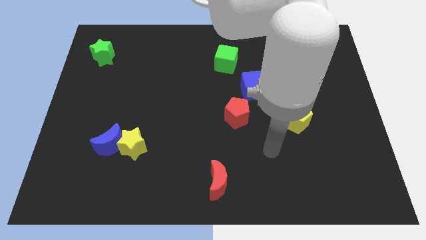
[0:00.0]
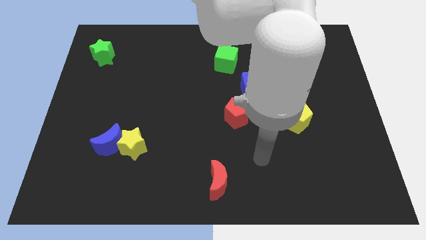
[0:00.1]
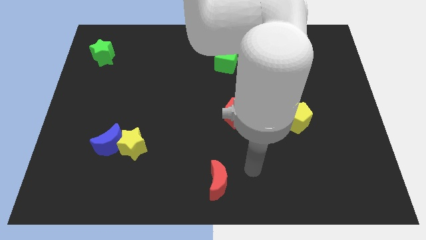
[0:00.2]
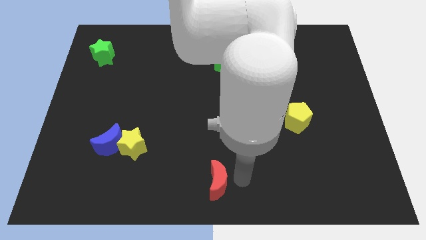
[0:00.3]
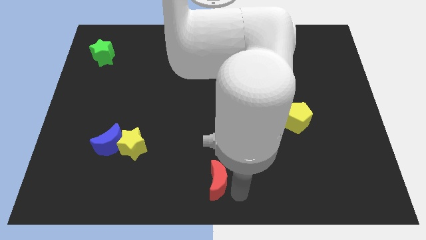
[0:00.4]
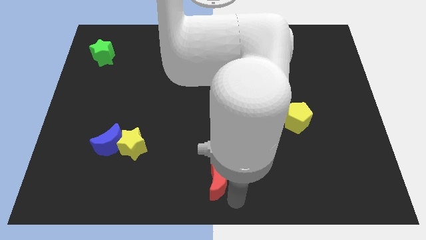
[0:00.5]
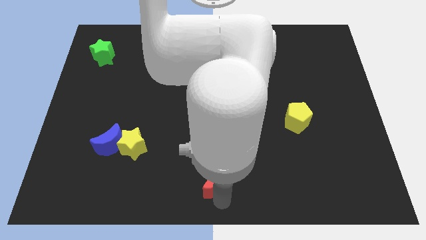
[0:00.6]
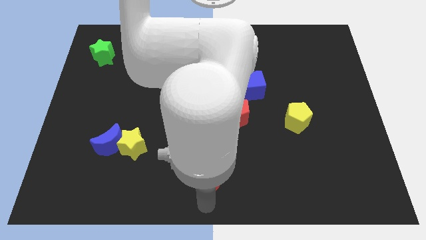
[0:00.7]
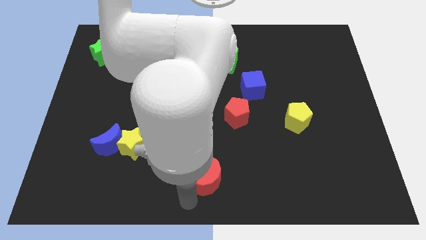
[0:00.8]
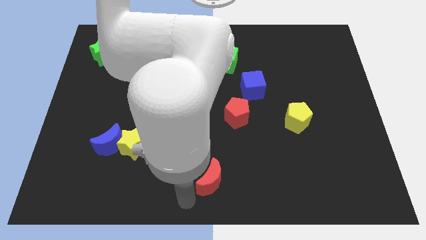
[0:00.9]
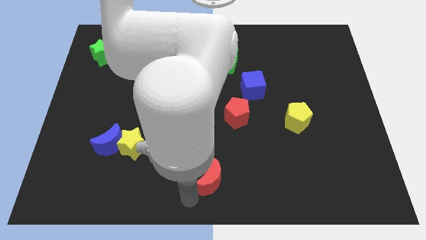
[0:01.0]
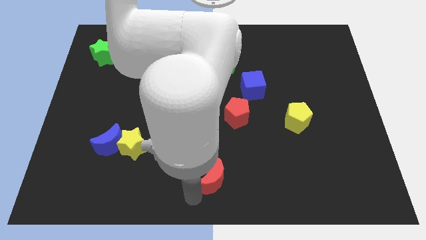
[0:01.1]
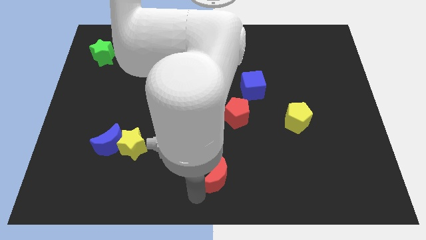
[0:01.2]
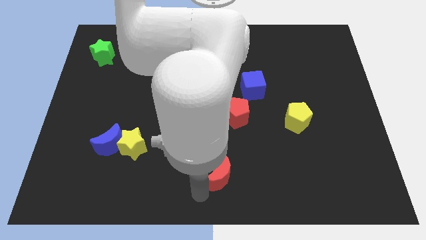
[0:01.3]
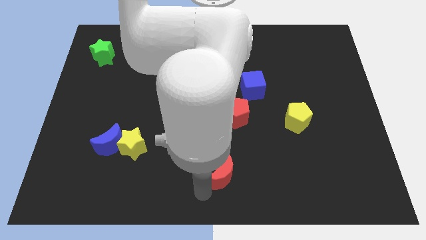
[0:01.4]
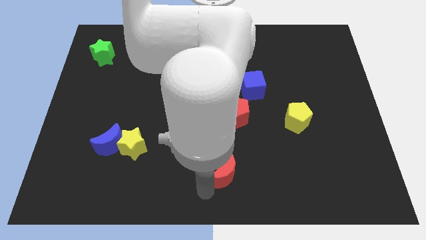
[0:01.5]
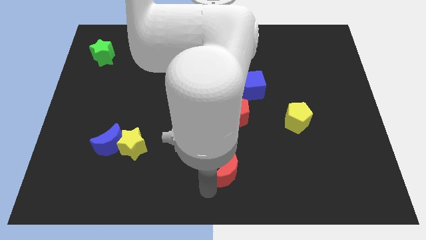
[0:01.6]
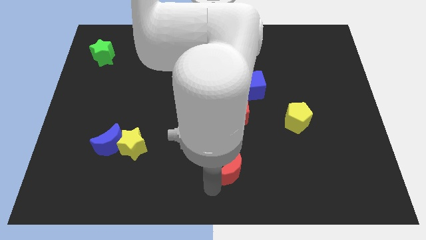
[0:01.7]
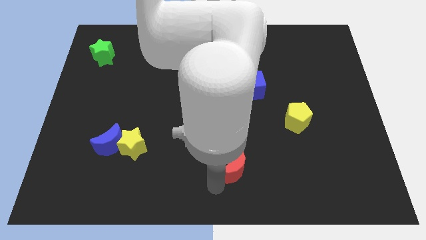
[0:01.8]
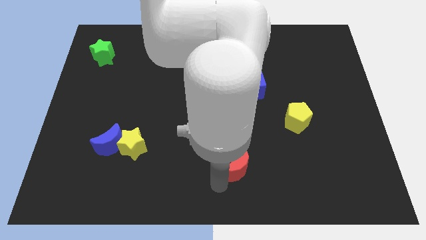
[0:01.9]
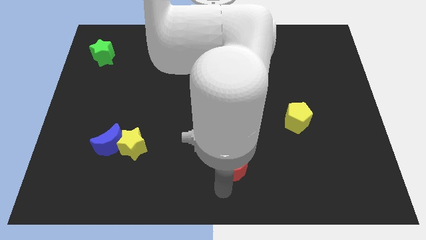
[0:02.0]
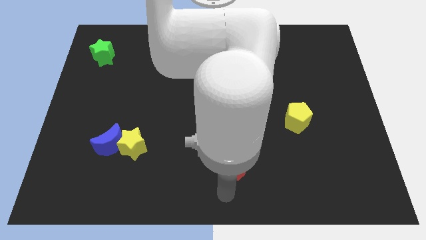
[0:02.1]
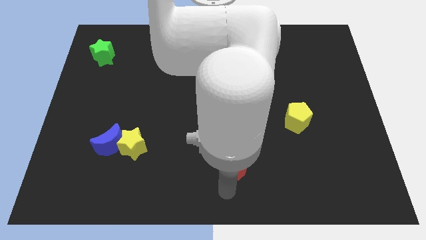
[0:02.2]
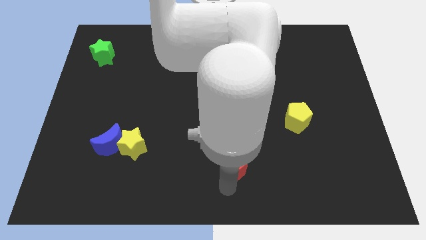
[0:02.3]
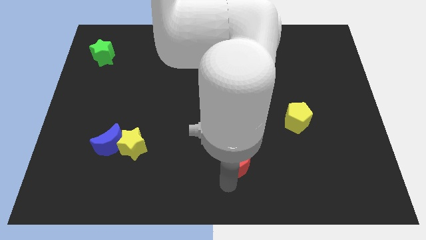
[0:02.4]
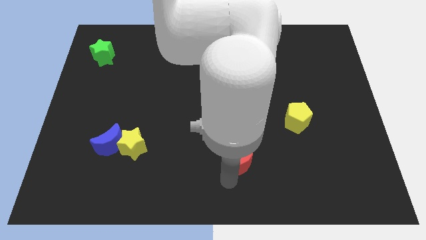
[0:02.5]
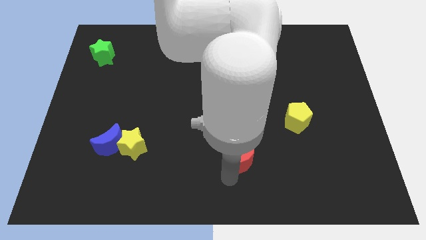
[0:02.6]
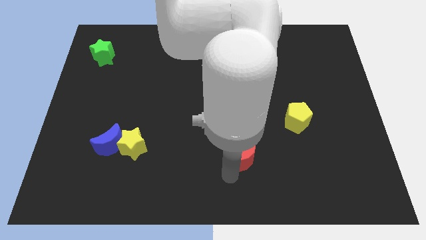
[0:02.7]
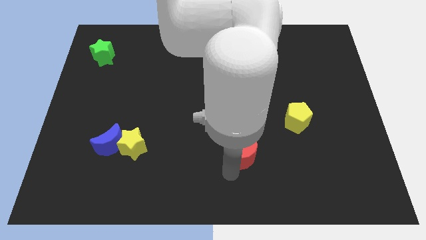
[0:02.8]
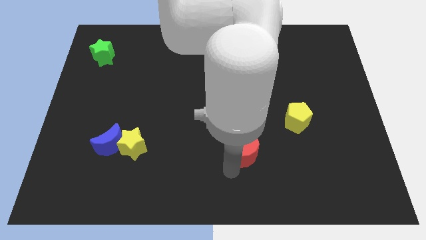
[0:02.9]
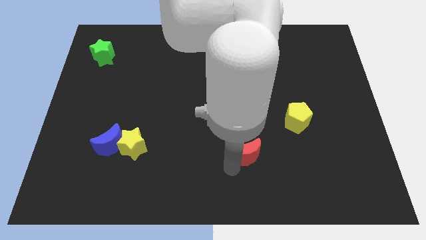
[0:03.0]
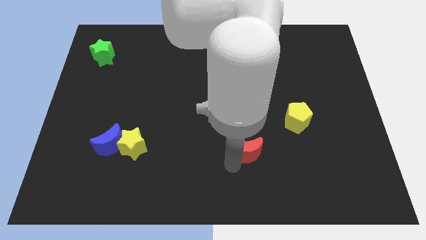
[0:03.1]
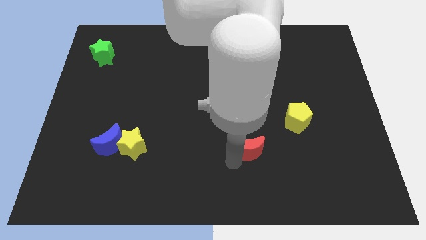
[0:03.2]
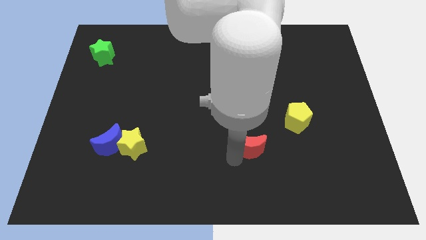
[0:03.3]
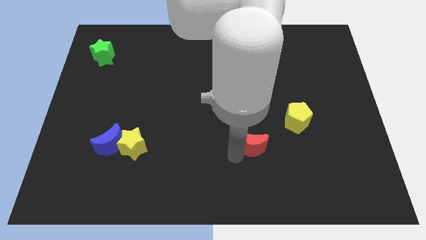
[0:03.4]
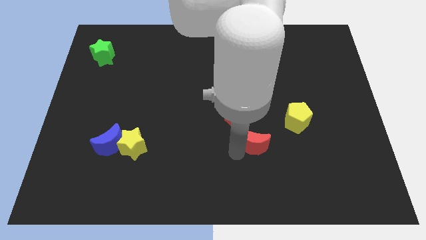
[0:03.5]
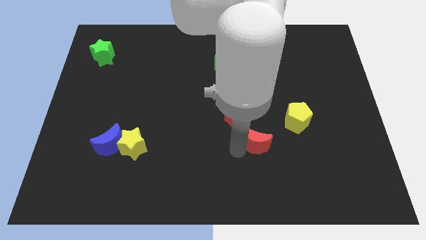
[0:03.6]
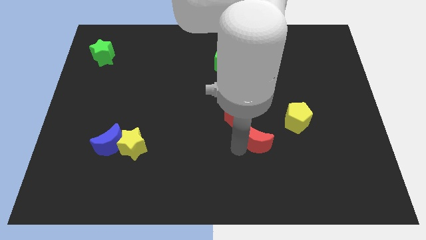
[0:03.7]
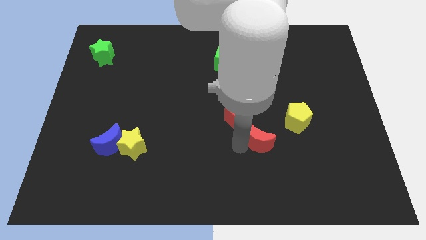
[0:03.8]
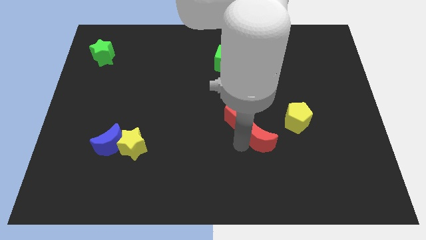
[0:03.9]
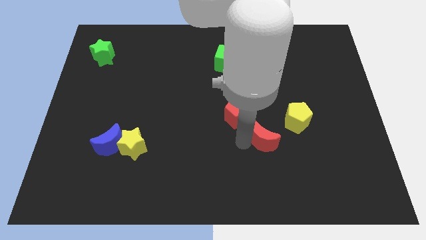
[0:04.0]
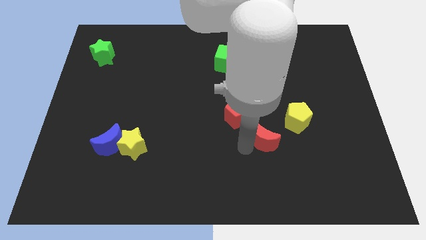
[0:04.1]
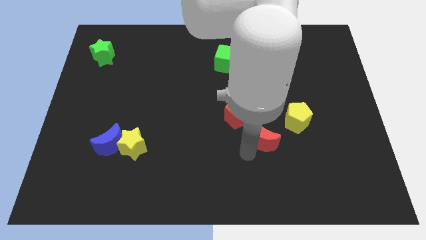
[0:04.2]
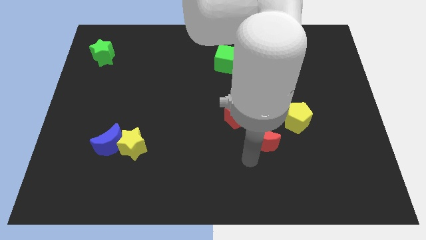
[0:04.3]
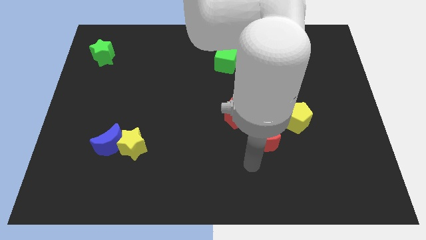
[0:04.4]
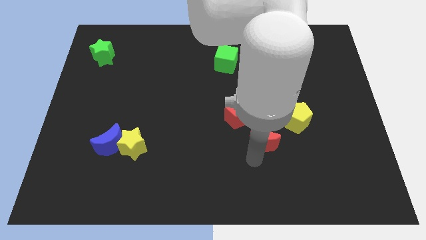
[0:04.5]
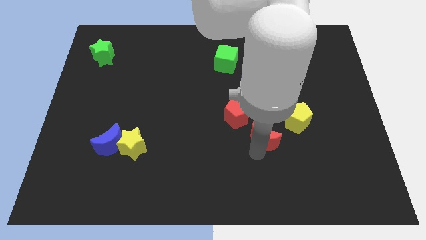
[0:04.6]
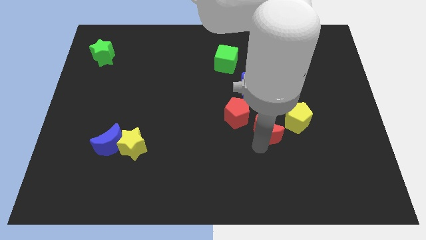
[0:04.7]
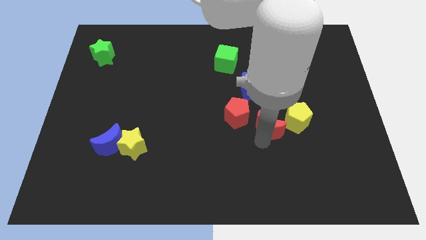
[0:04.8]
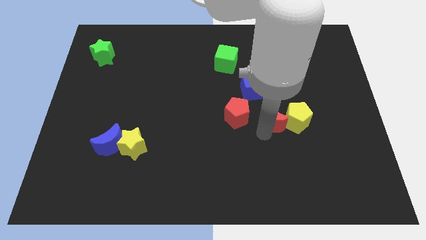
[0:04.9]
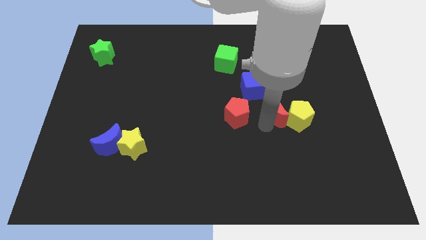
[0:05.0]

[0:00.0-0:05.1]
move the red moon up and right diagonally

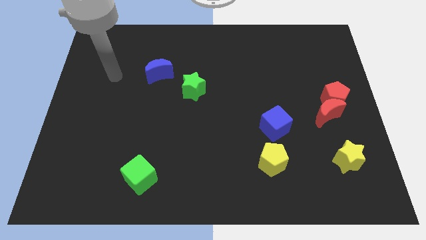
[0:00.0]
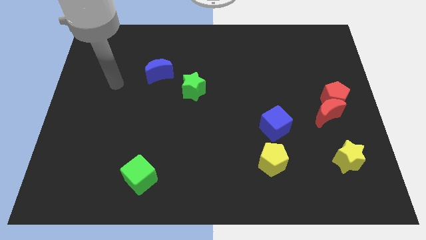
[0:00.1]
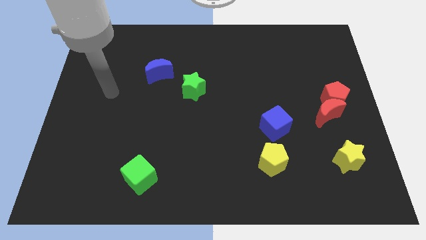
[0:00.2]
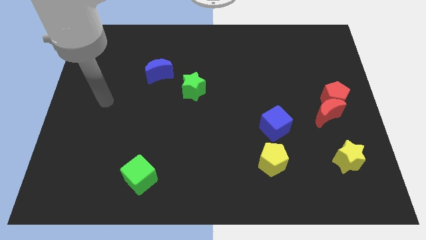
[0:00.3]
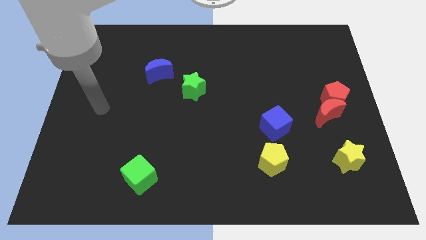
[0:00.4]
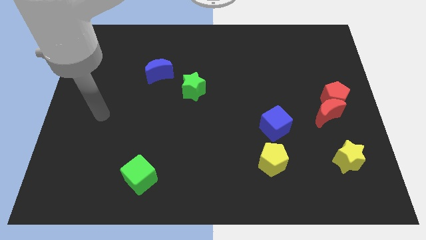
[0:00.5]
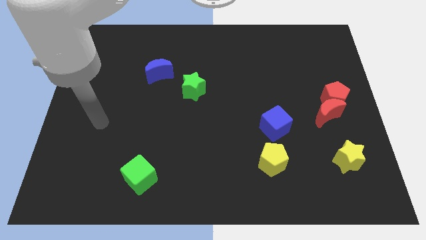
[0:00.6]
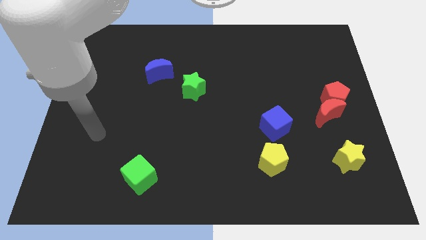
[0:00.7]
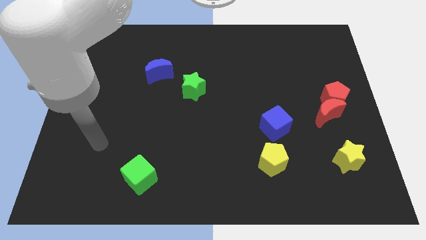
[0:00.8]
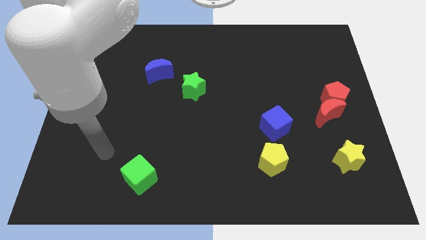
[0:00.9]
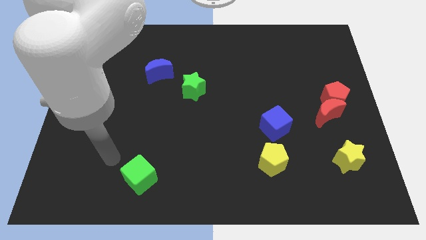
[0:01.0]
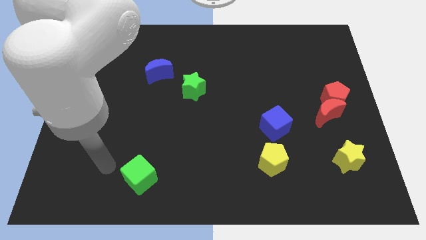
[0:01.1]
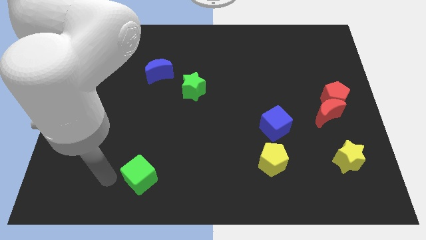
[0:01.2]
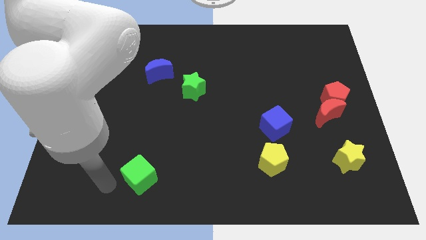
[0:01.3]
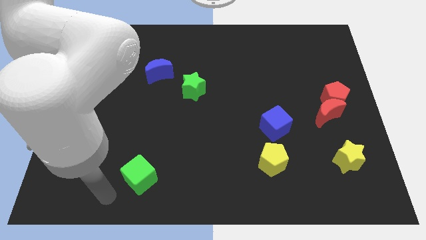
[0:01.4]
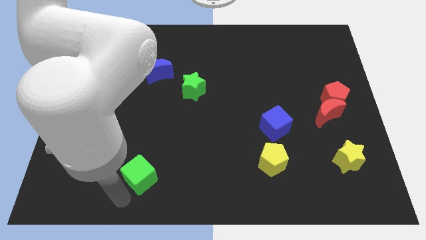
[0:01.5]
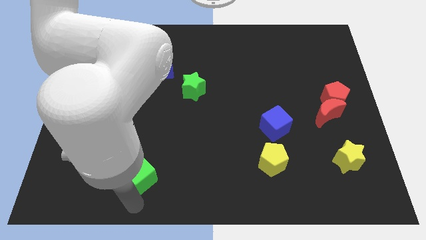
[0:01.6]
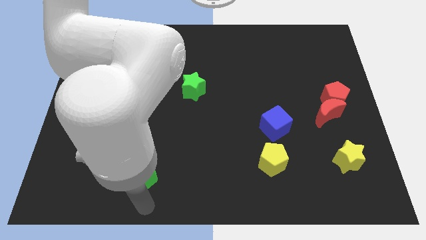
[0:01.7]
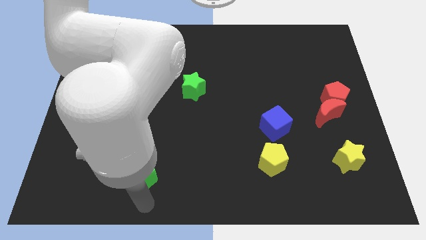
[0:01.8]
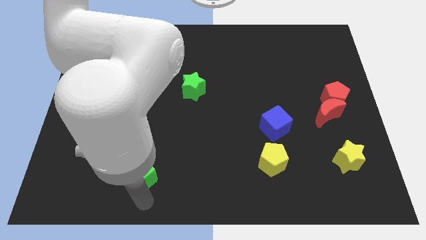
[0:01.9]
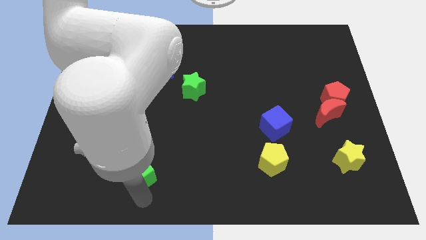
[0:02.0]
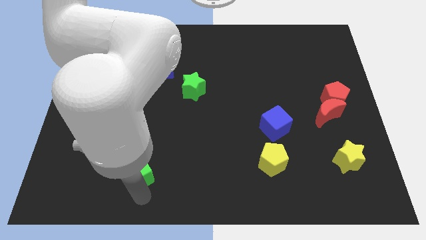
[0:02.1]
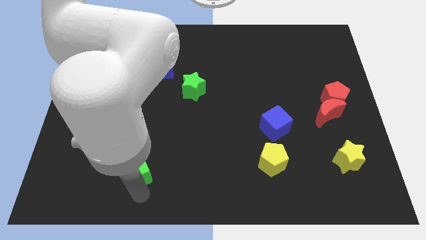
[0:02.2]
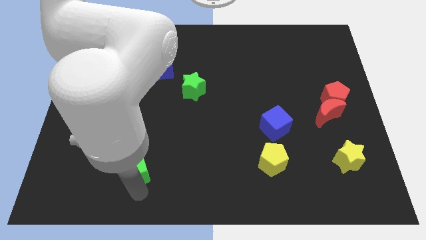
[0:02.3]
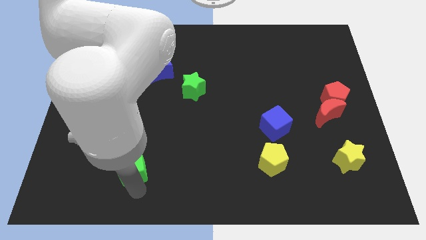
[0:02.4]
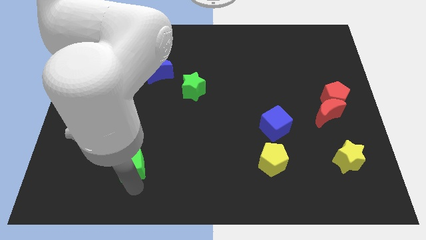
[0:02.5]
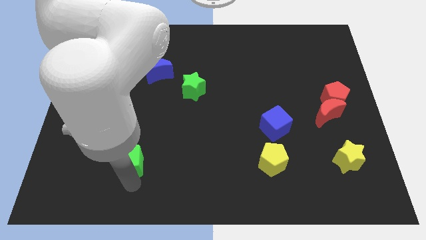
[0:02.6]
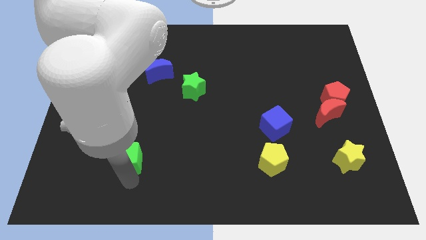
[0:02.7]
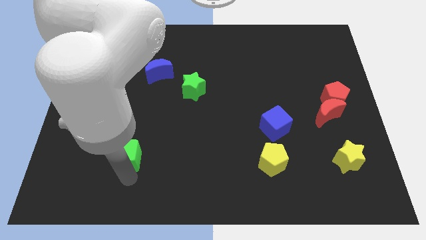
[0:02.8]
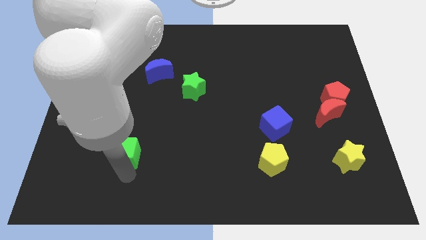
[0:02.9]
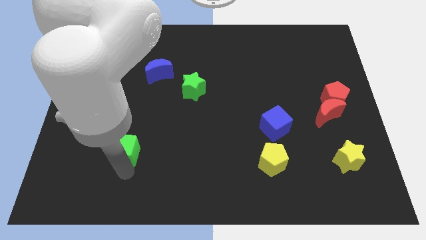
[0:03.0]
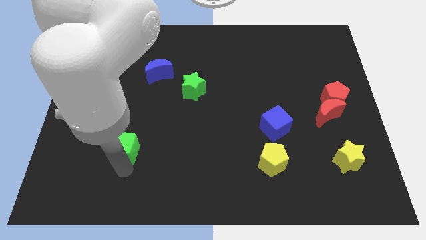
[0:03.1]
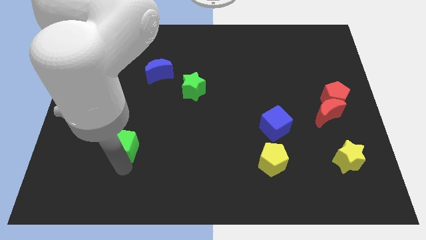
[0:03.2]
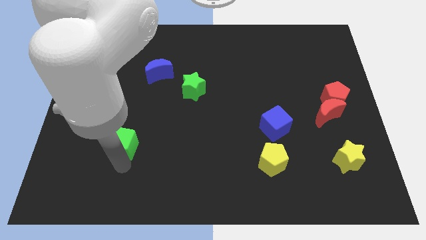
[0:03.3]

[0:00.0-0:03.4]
push the green cube slightly up
